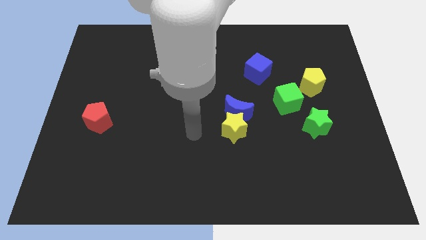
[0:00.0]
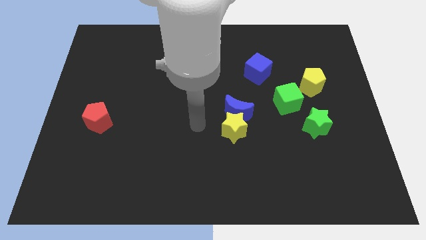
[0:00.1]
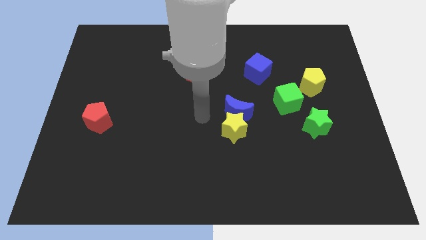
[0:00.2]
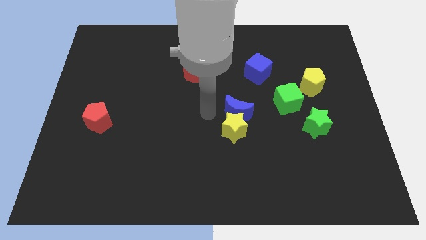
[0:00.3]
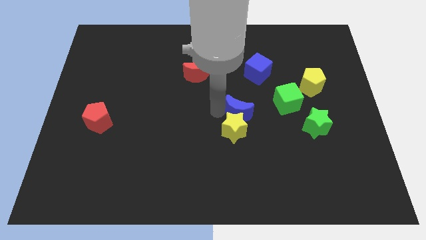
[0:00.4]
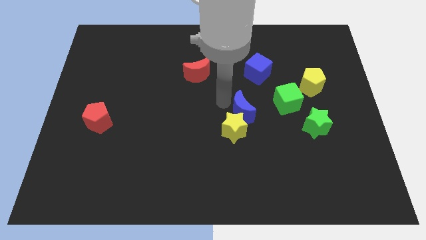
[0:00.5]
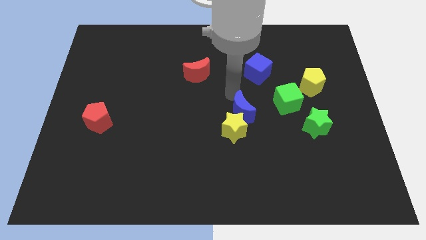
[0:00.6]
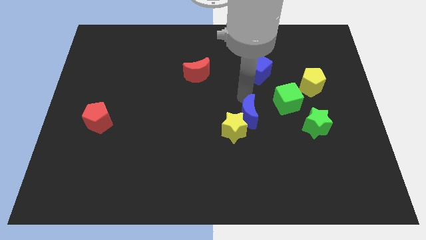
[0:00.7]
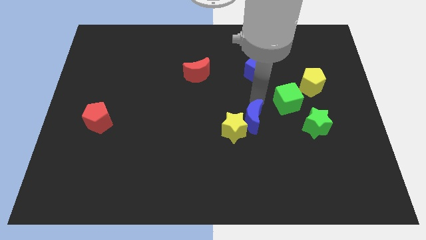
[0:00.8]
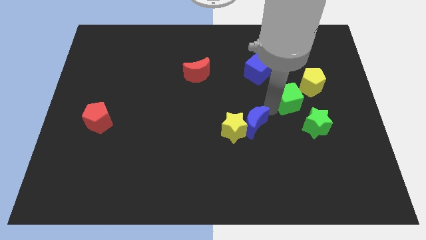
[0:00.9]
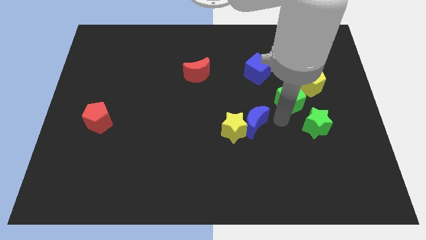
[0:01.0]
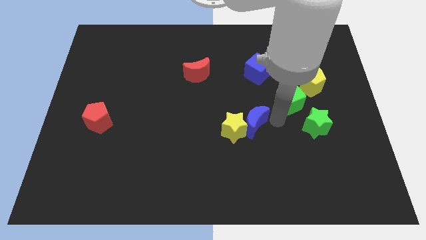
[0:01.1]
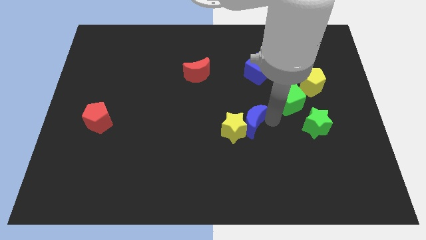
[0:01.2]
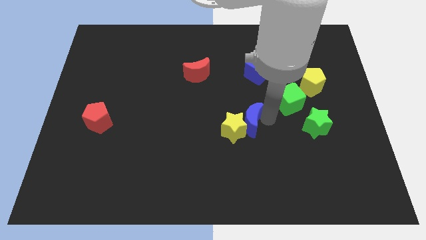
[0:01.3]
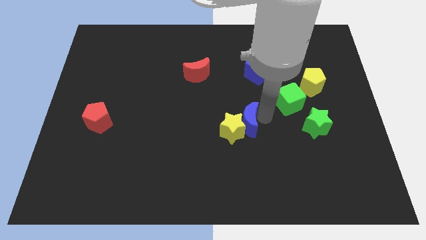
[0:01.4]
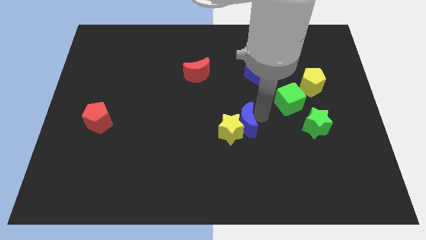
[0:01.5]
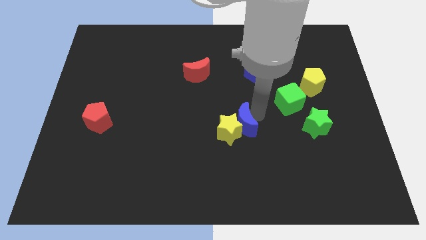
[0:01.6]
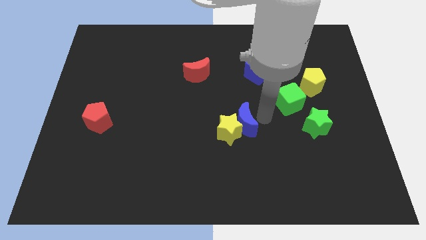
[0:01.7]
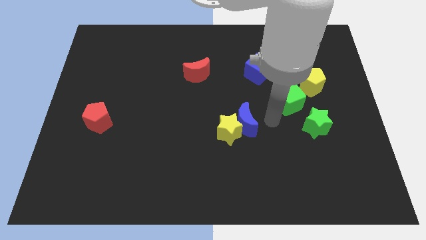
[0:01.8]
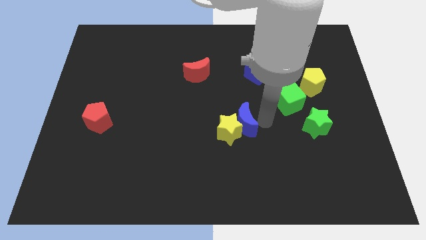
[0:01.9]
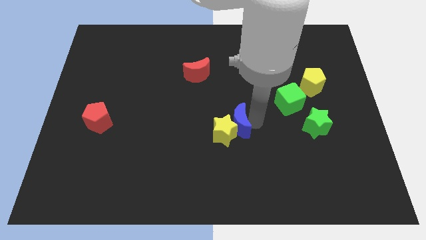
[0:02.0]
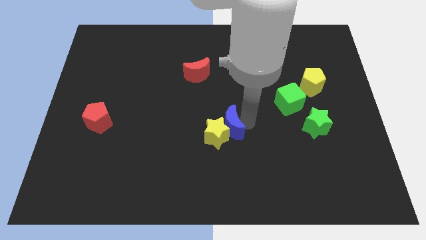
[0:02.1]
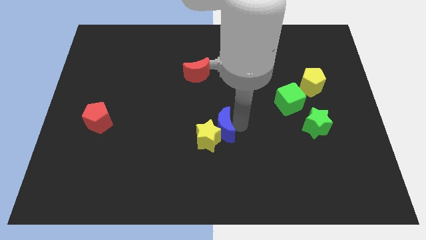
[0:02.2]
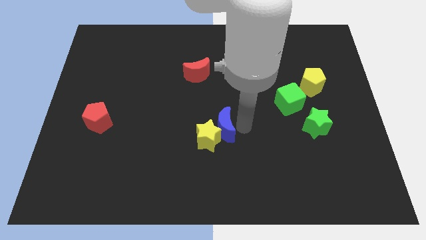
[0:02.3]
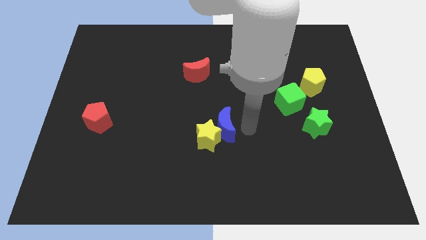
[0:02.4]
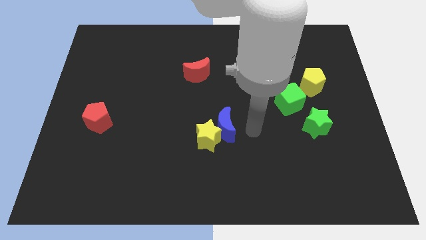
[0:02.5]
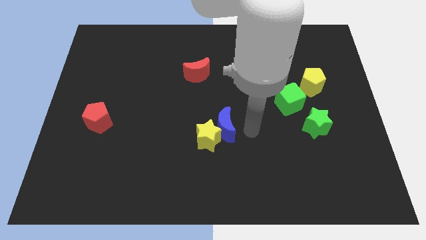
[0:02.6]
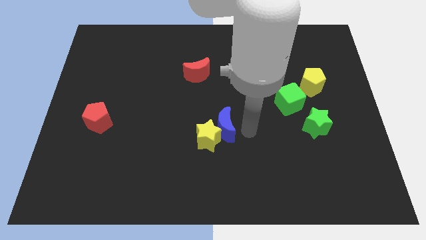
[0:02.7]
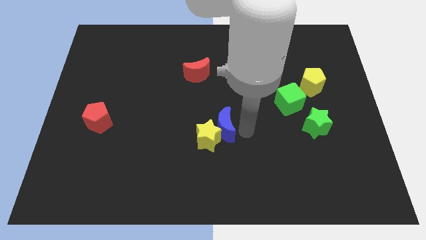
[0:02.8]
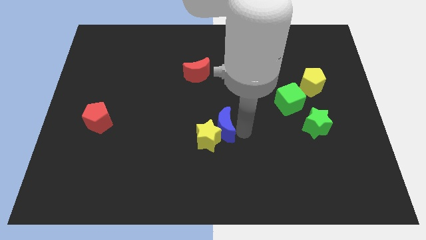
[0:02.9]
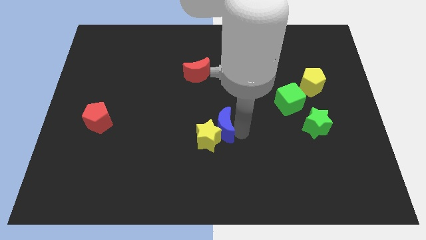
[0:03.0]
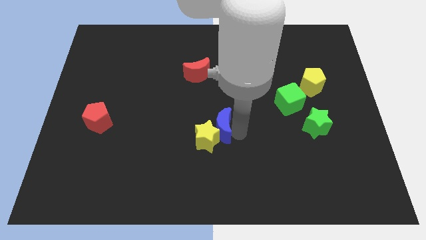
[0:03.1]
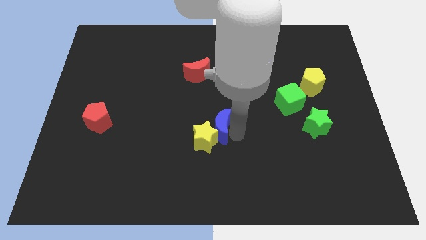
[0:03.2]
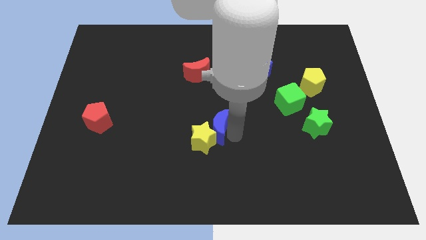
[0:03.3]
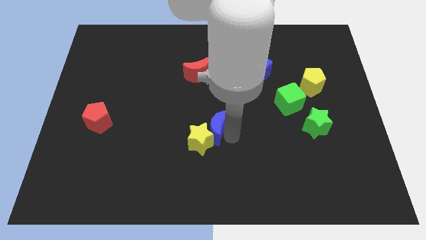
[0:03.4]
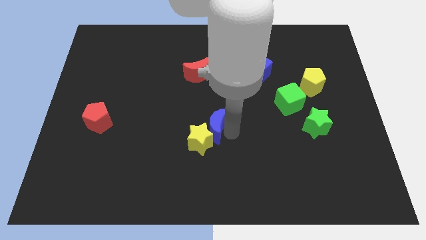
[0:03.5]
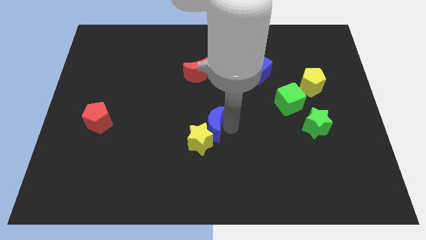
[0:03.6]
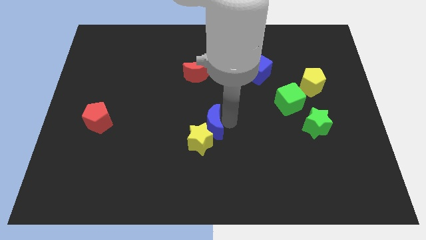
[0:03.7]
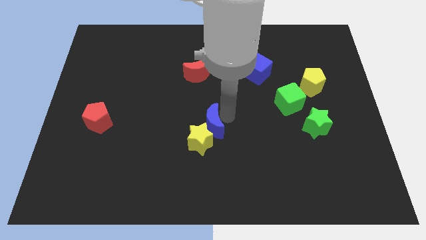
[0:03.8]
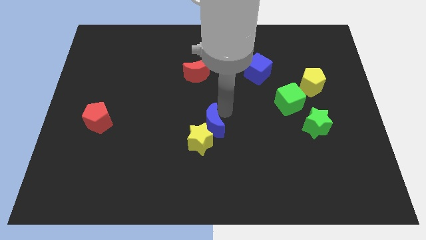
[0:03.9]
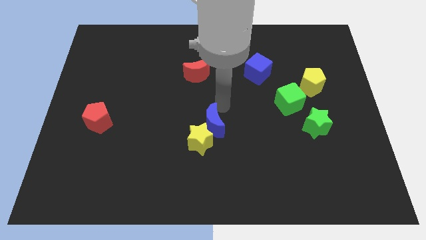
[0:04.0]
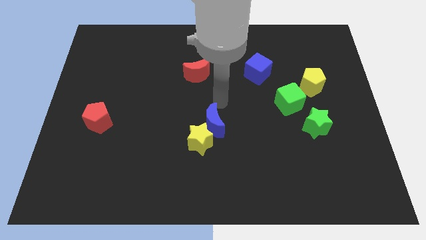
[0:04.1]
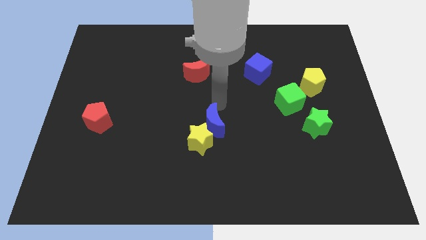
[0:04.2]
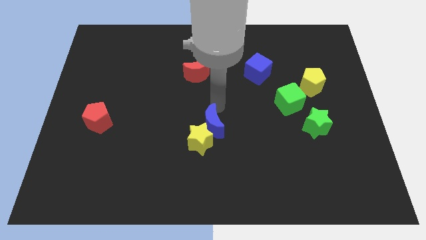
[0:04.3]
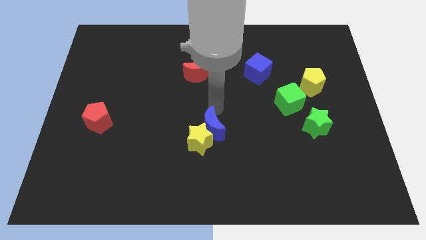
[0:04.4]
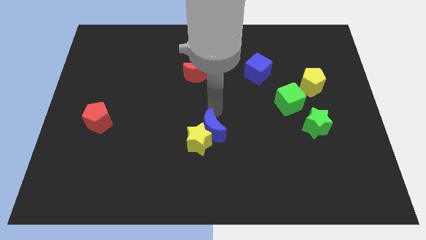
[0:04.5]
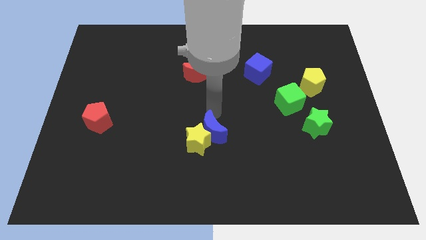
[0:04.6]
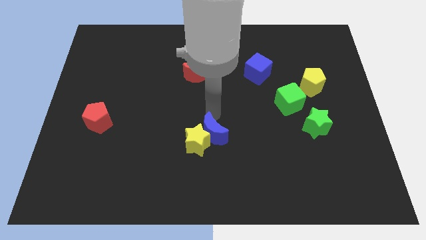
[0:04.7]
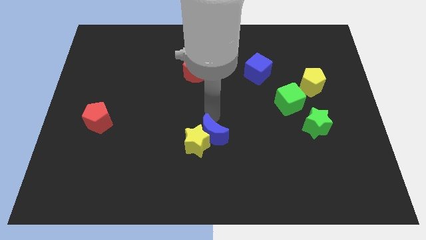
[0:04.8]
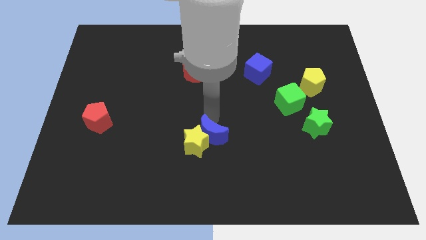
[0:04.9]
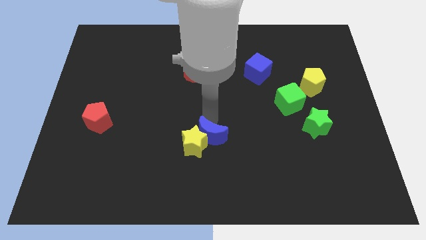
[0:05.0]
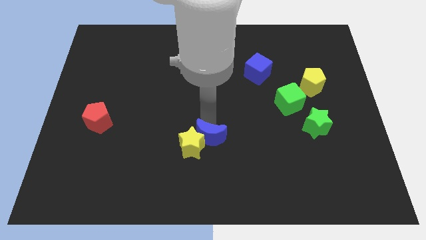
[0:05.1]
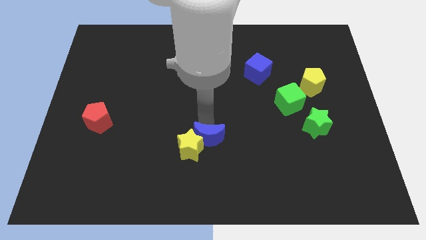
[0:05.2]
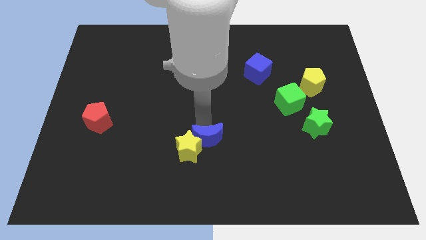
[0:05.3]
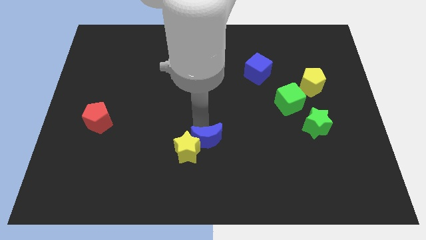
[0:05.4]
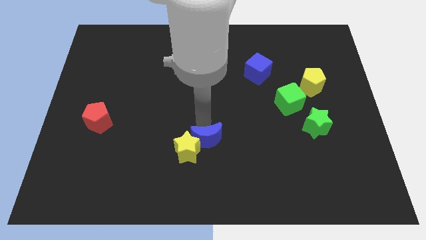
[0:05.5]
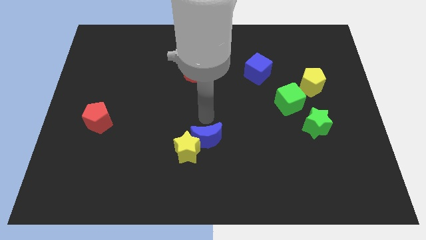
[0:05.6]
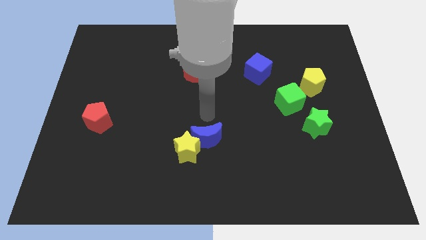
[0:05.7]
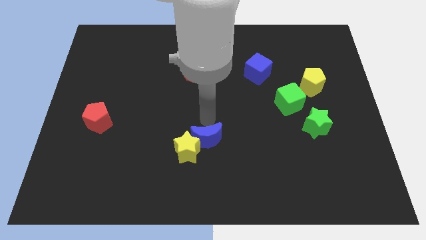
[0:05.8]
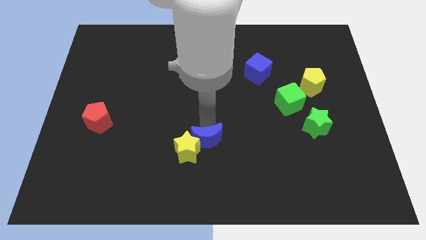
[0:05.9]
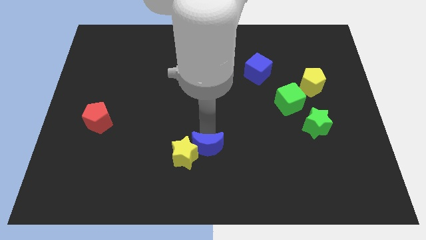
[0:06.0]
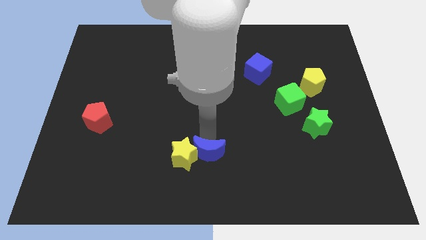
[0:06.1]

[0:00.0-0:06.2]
slide the blue moon to the bottom side

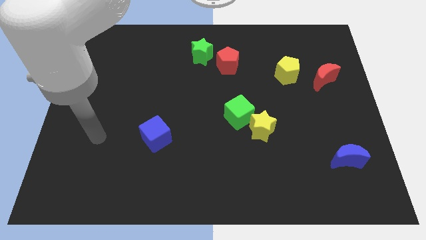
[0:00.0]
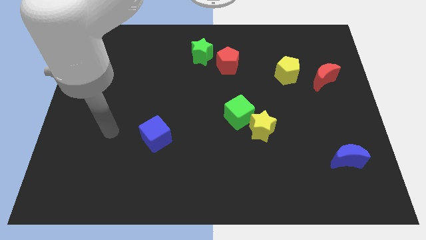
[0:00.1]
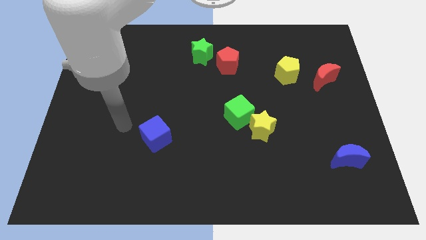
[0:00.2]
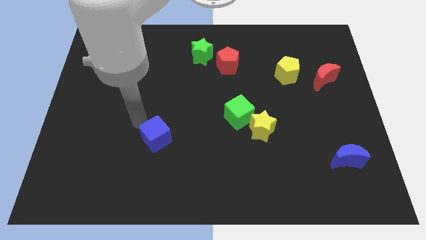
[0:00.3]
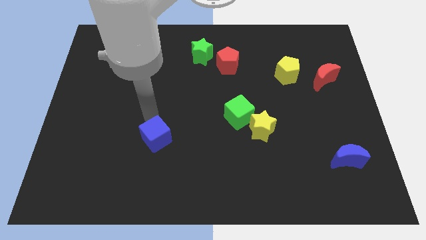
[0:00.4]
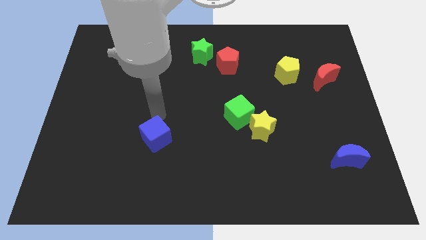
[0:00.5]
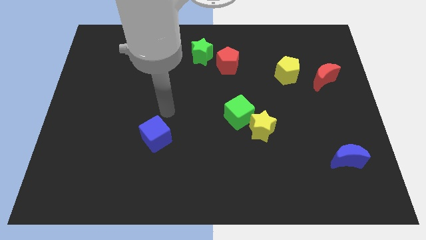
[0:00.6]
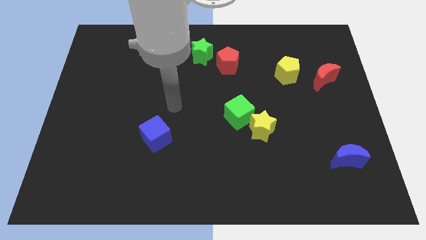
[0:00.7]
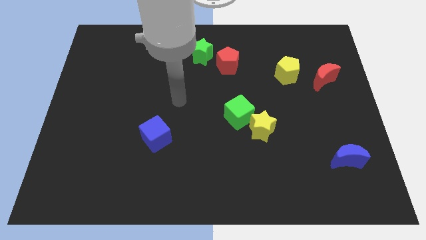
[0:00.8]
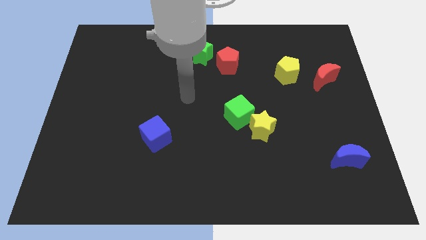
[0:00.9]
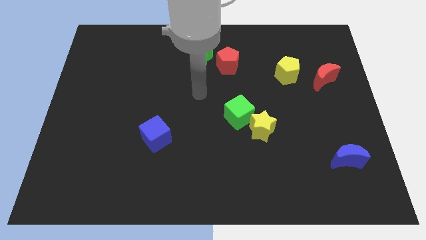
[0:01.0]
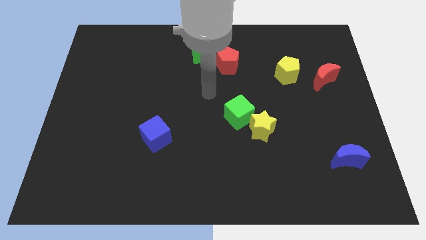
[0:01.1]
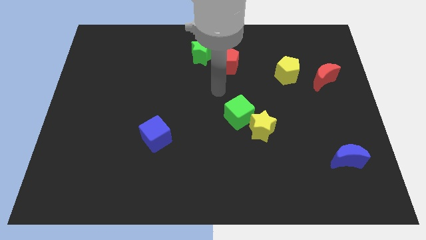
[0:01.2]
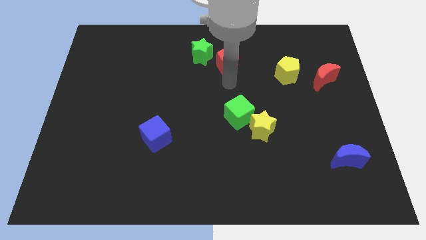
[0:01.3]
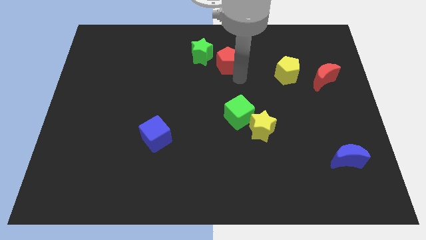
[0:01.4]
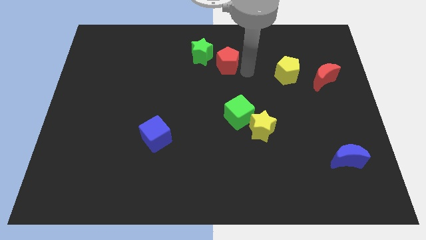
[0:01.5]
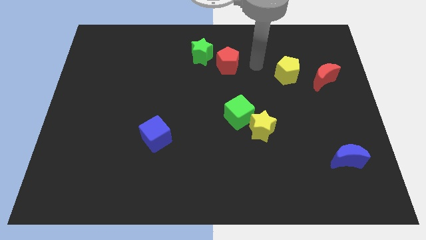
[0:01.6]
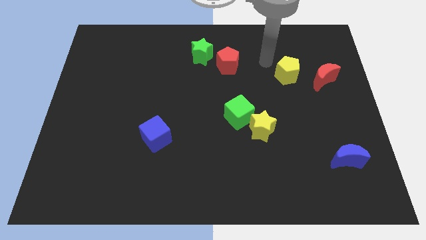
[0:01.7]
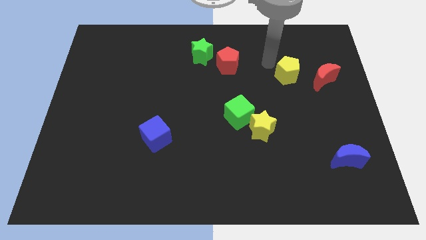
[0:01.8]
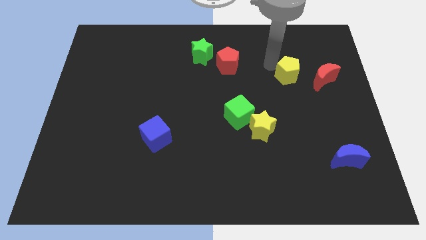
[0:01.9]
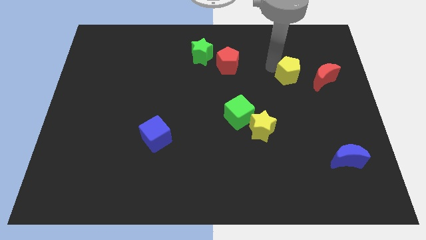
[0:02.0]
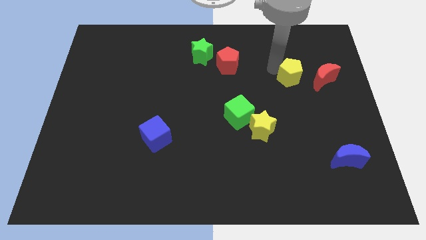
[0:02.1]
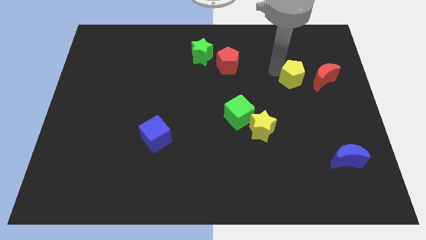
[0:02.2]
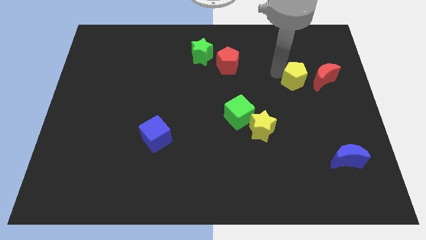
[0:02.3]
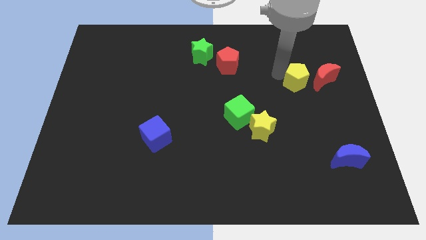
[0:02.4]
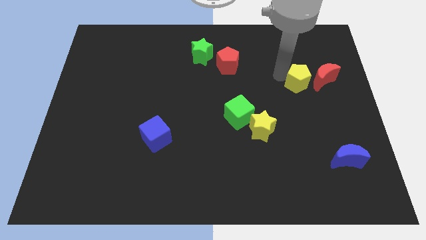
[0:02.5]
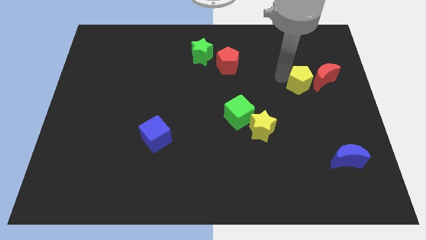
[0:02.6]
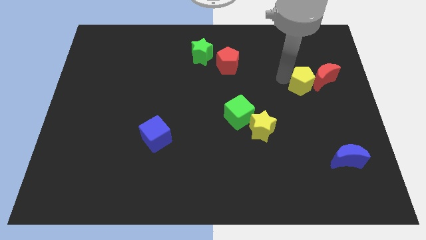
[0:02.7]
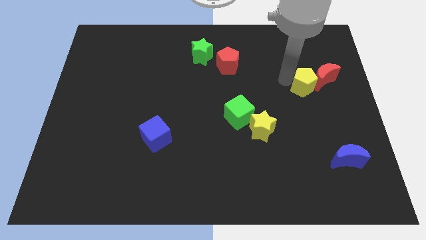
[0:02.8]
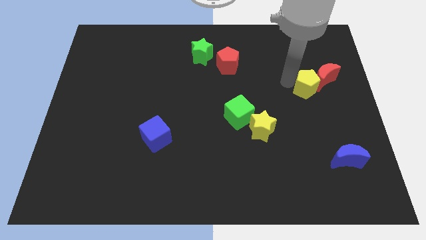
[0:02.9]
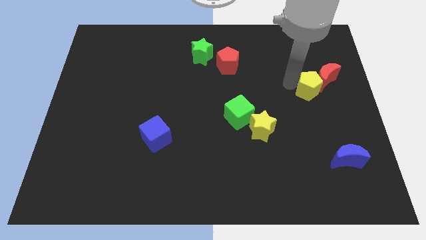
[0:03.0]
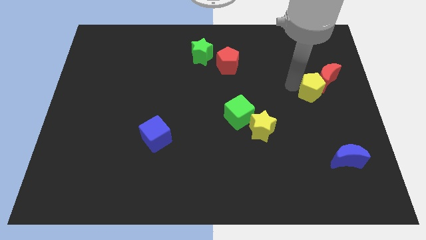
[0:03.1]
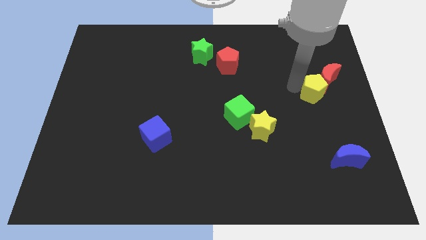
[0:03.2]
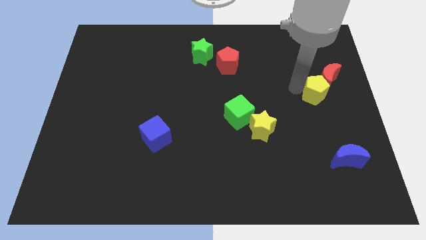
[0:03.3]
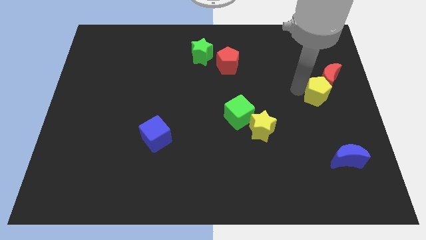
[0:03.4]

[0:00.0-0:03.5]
slide the yellow pentagon to the right side of the board
